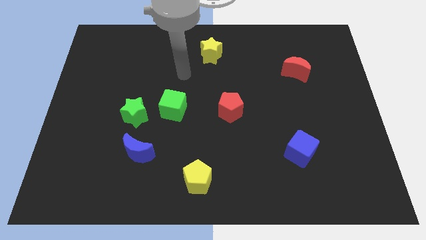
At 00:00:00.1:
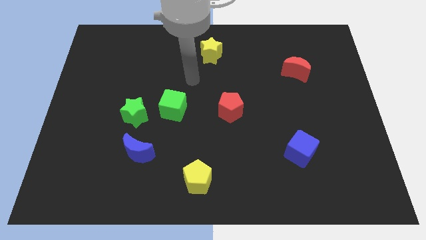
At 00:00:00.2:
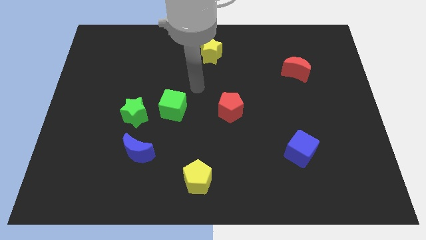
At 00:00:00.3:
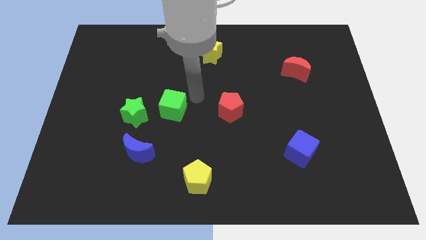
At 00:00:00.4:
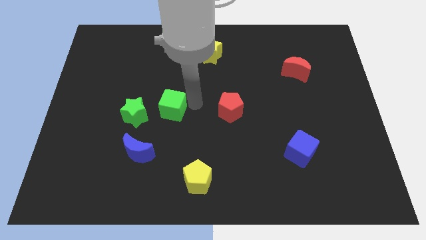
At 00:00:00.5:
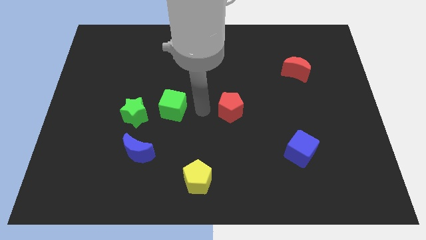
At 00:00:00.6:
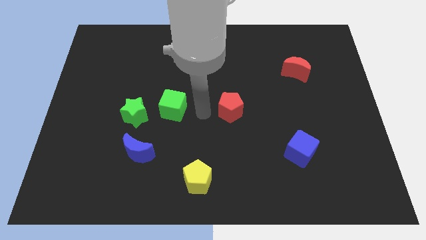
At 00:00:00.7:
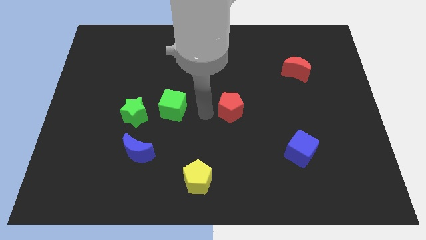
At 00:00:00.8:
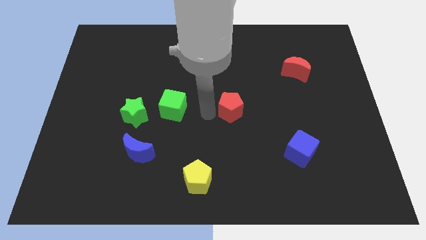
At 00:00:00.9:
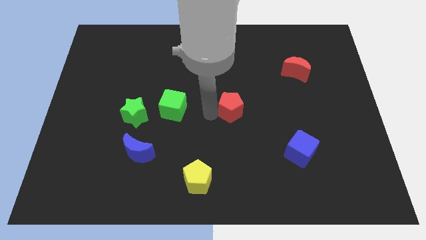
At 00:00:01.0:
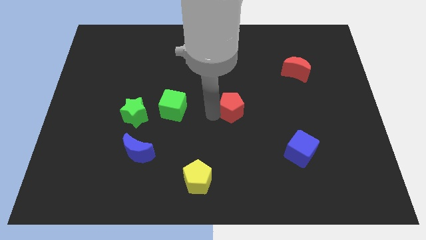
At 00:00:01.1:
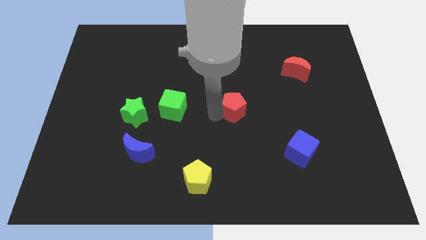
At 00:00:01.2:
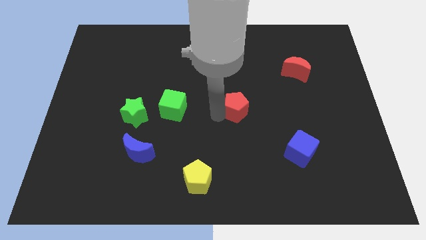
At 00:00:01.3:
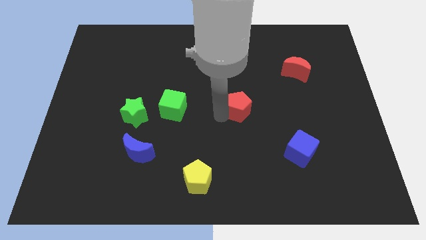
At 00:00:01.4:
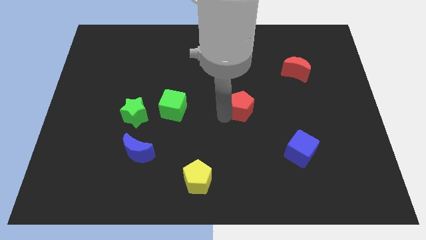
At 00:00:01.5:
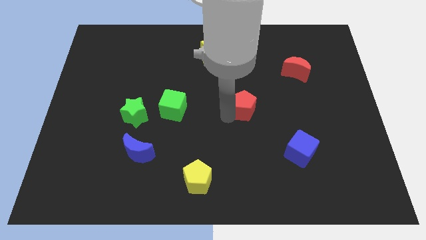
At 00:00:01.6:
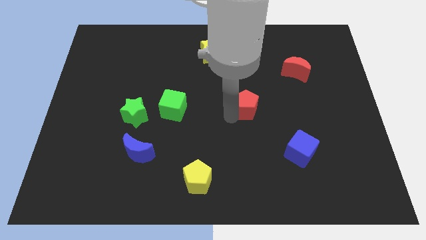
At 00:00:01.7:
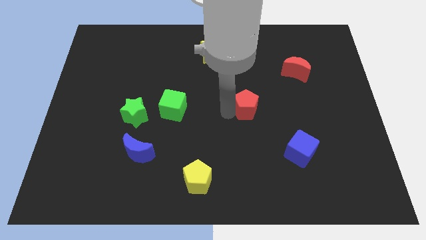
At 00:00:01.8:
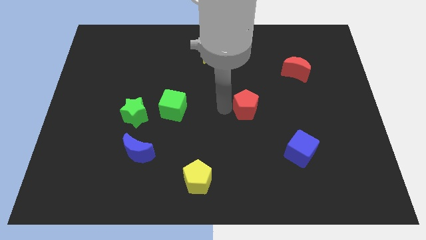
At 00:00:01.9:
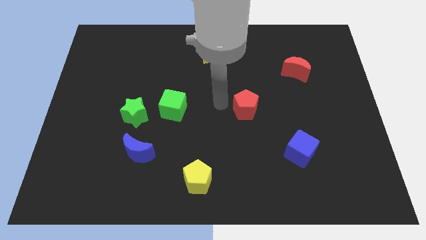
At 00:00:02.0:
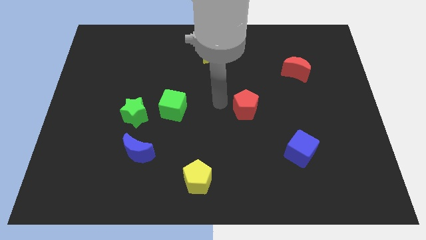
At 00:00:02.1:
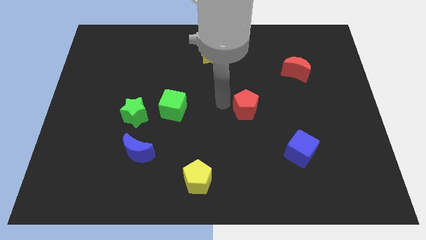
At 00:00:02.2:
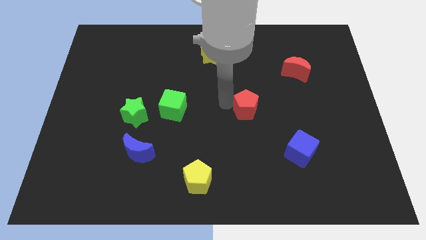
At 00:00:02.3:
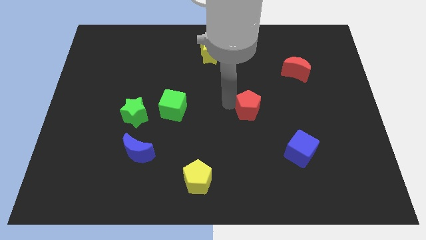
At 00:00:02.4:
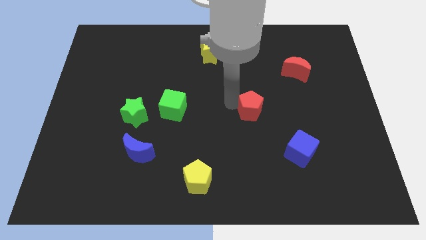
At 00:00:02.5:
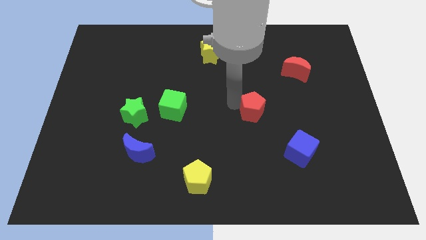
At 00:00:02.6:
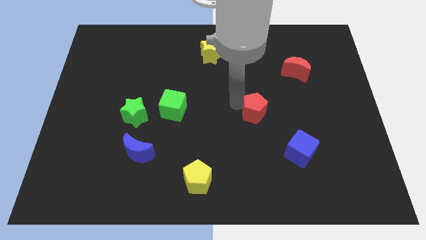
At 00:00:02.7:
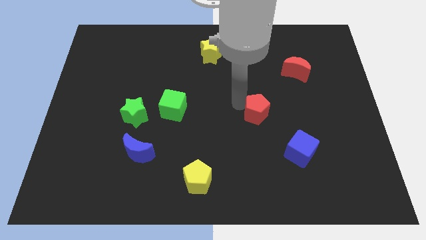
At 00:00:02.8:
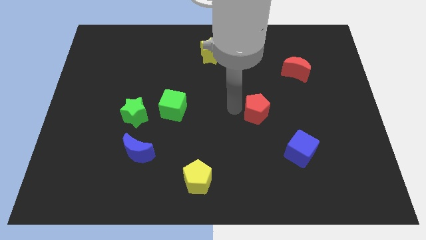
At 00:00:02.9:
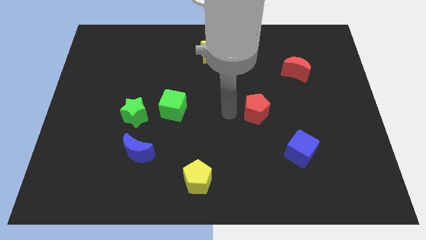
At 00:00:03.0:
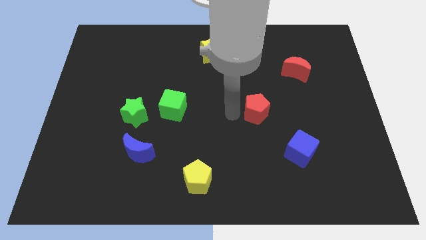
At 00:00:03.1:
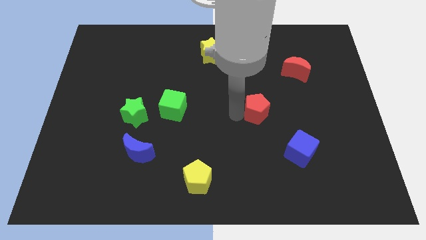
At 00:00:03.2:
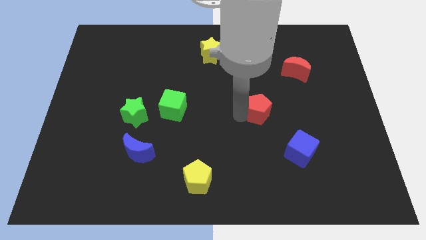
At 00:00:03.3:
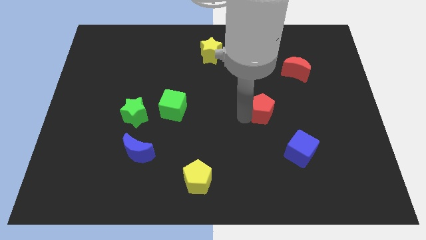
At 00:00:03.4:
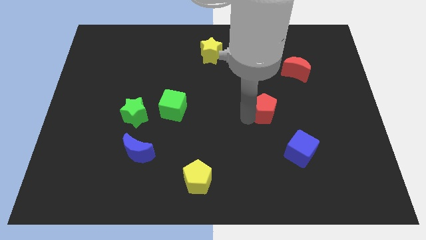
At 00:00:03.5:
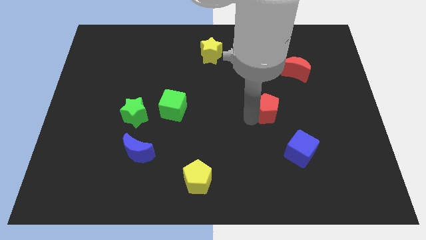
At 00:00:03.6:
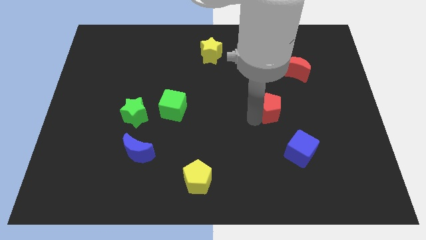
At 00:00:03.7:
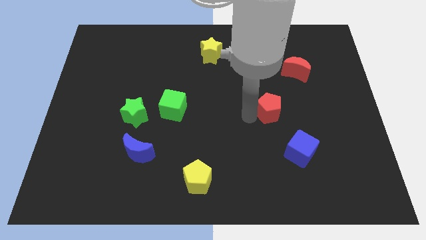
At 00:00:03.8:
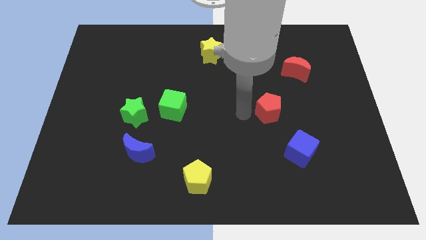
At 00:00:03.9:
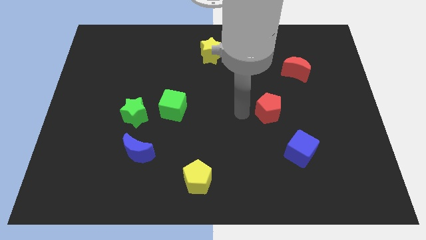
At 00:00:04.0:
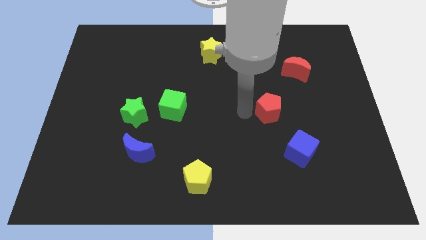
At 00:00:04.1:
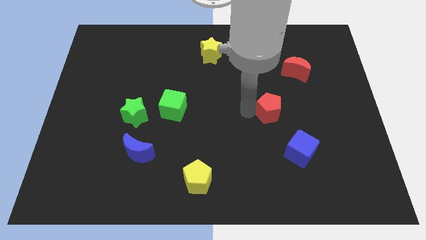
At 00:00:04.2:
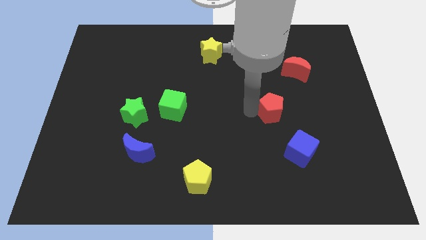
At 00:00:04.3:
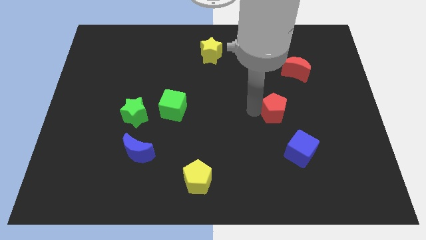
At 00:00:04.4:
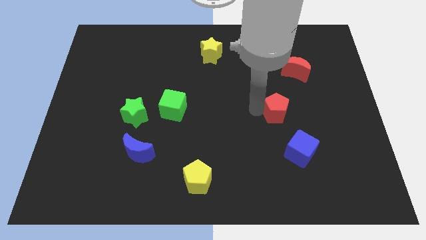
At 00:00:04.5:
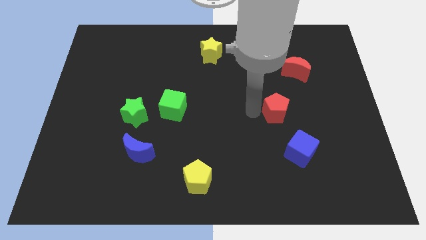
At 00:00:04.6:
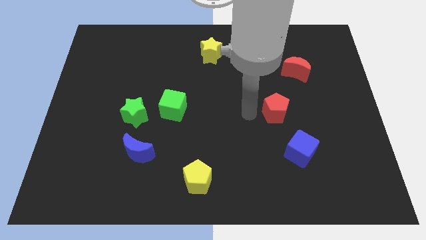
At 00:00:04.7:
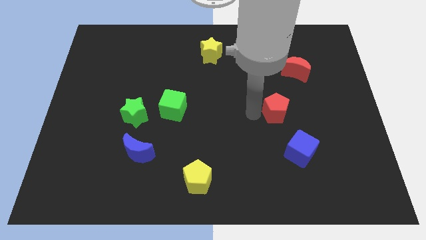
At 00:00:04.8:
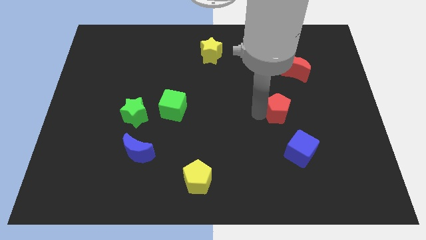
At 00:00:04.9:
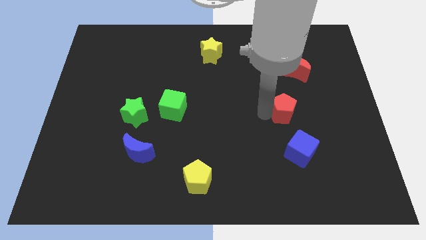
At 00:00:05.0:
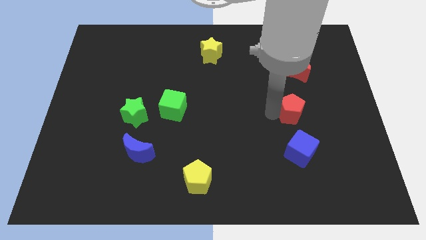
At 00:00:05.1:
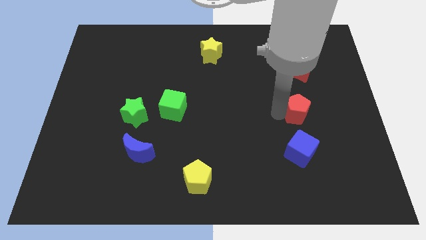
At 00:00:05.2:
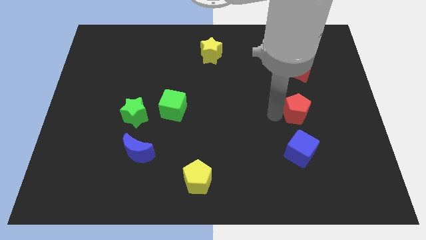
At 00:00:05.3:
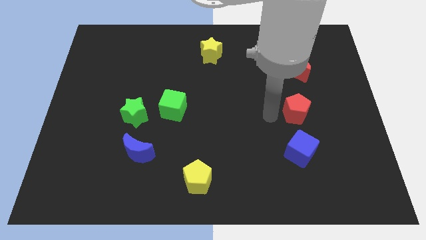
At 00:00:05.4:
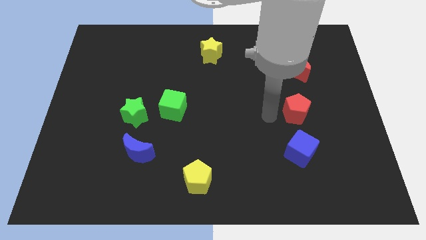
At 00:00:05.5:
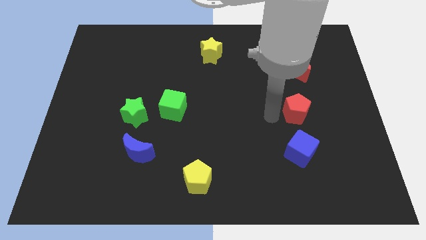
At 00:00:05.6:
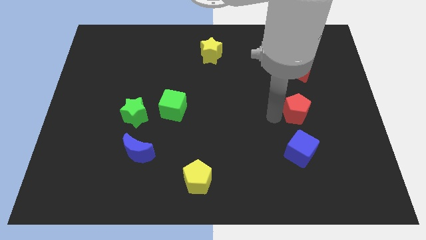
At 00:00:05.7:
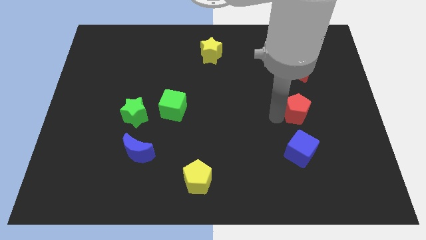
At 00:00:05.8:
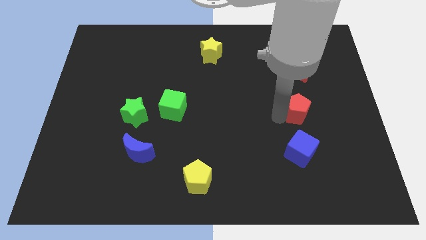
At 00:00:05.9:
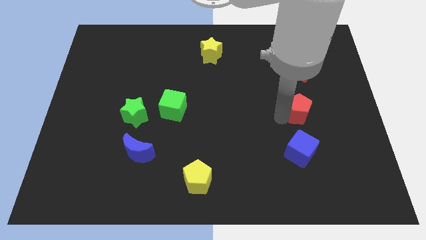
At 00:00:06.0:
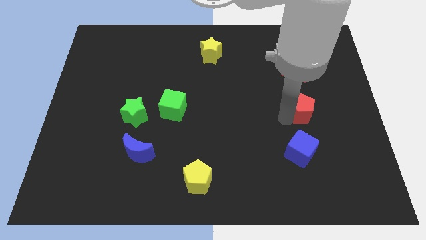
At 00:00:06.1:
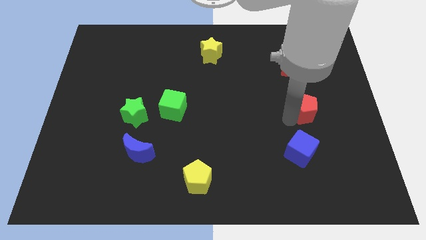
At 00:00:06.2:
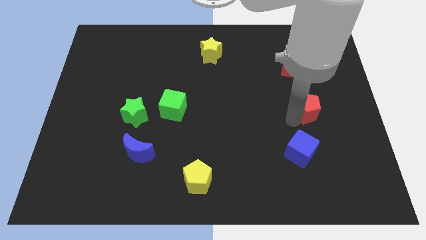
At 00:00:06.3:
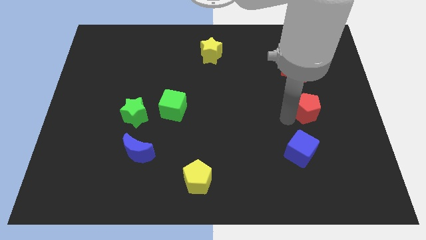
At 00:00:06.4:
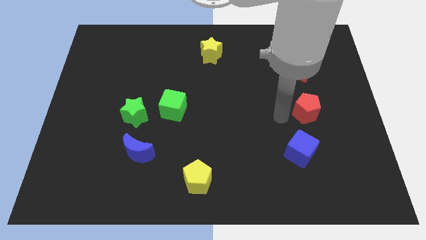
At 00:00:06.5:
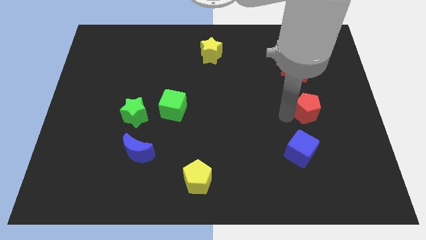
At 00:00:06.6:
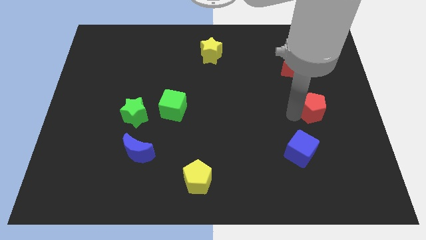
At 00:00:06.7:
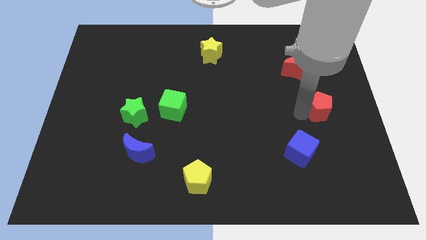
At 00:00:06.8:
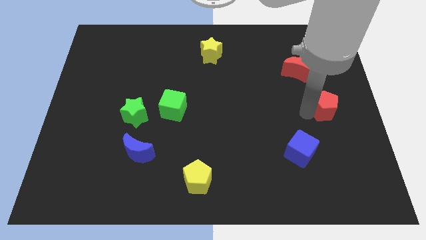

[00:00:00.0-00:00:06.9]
push the red pentagon to the right side of the board
